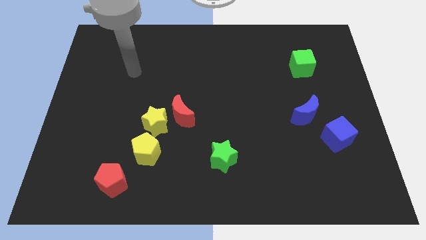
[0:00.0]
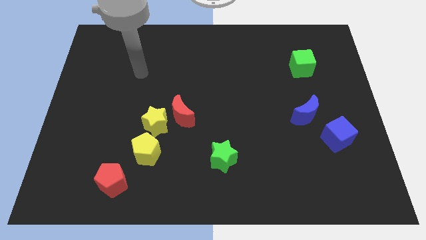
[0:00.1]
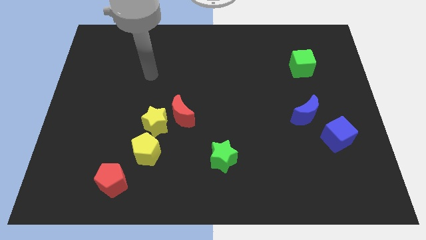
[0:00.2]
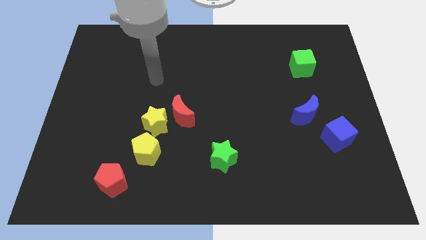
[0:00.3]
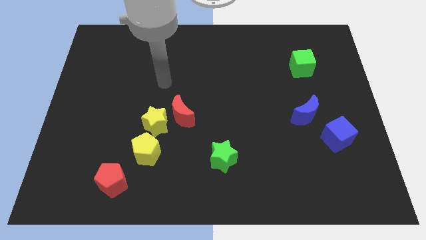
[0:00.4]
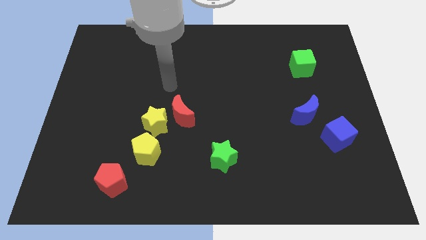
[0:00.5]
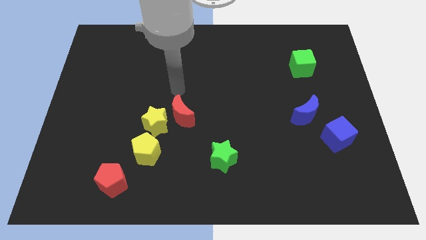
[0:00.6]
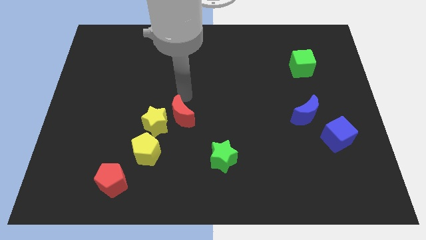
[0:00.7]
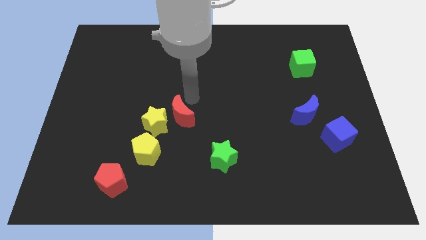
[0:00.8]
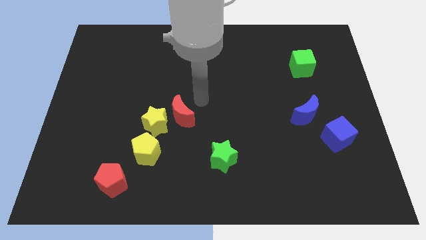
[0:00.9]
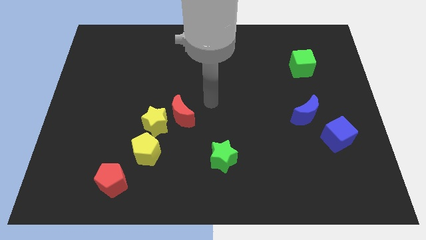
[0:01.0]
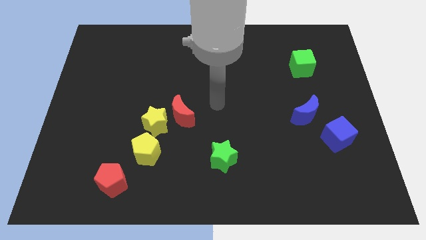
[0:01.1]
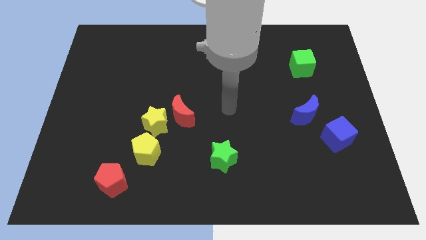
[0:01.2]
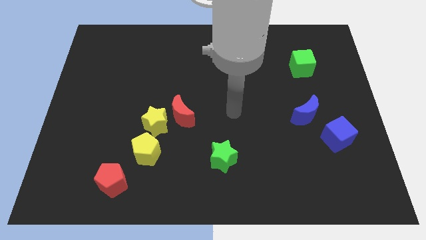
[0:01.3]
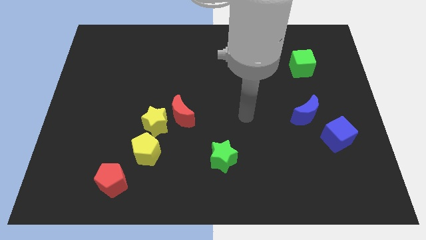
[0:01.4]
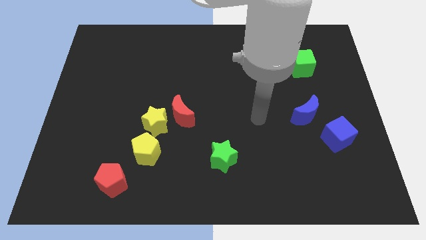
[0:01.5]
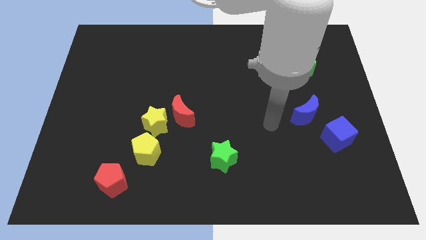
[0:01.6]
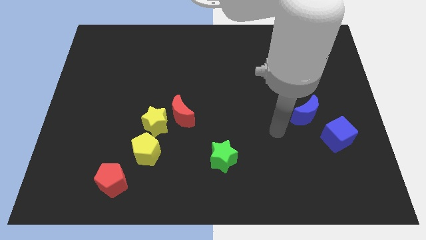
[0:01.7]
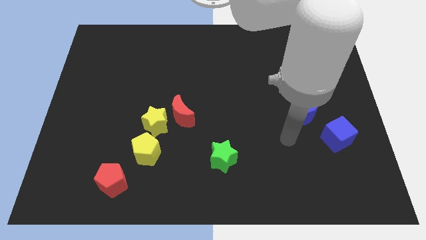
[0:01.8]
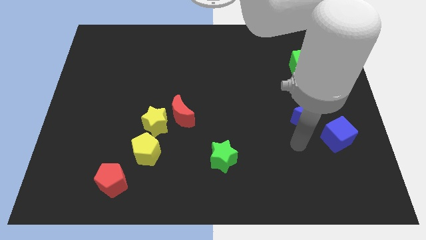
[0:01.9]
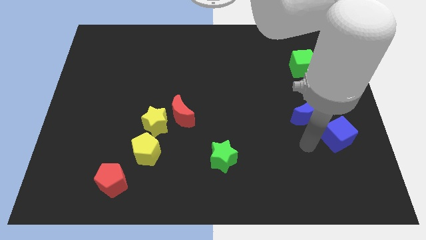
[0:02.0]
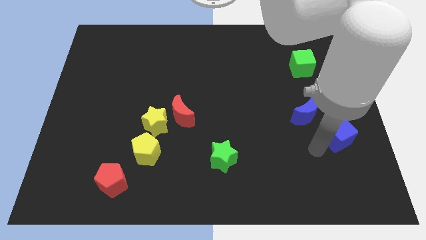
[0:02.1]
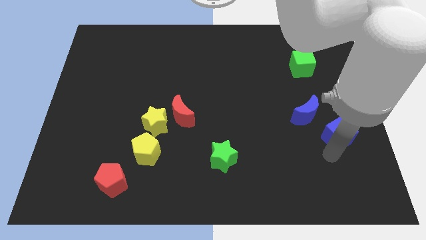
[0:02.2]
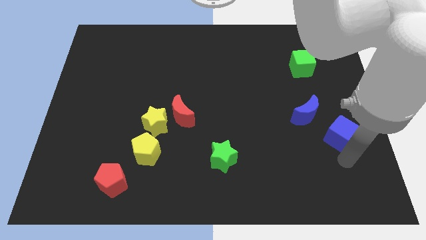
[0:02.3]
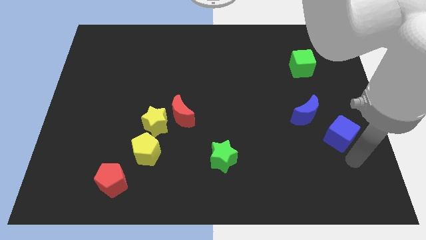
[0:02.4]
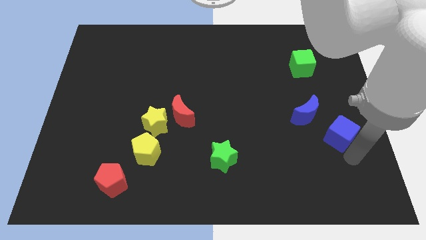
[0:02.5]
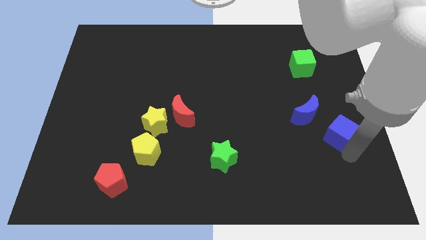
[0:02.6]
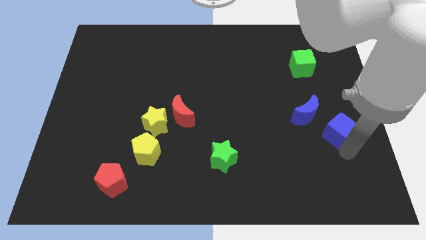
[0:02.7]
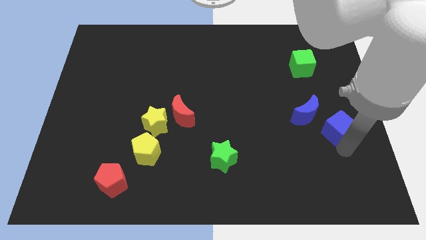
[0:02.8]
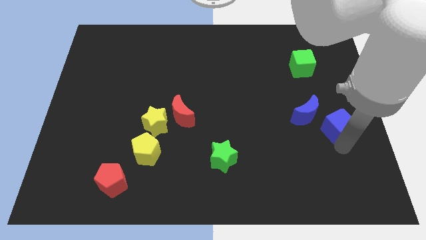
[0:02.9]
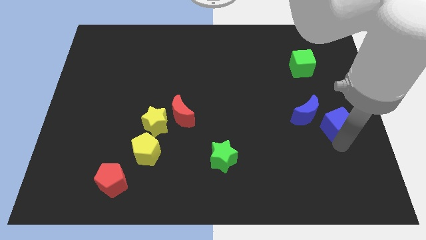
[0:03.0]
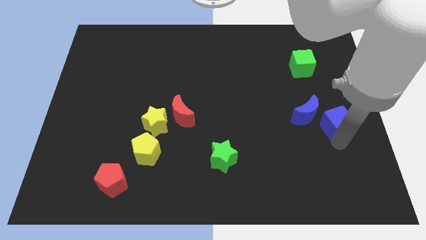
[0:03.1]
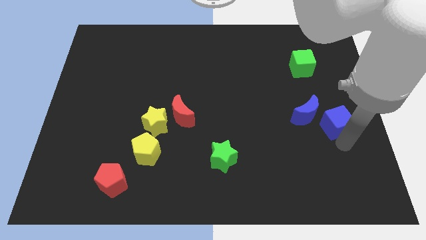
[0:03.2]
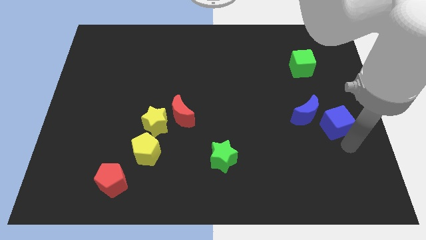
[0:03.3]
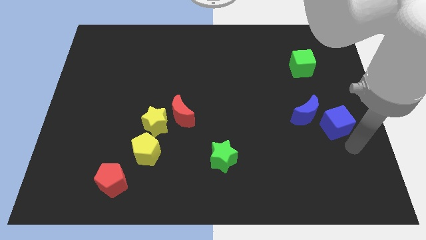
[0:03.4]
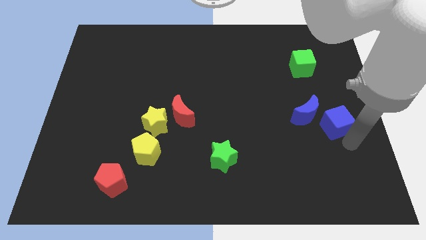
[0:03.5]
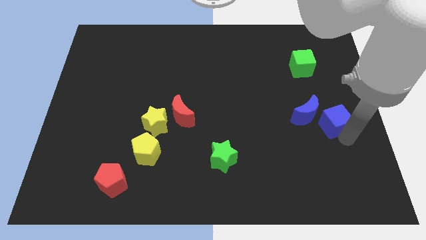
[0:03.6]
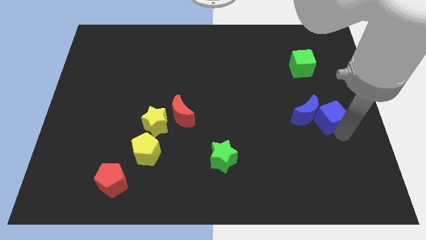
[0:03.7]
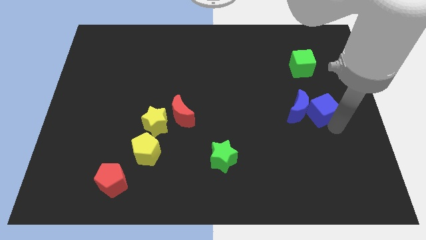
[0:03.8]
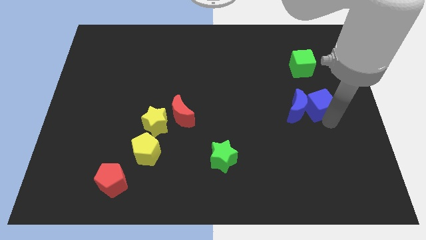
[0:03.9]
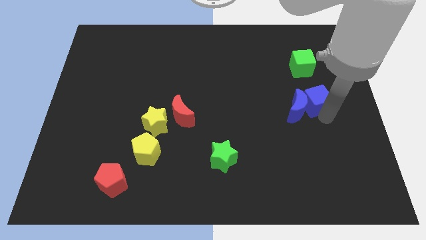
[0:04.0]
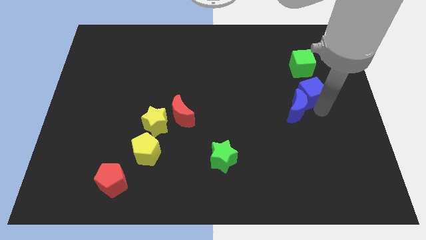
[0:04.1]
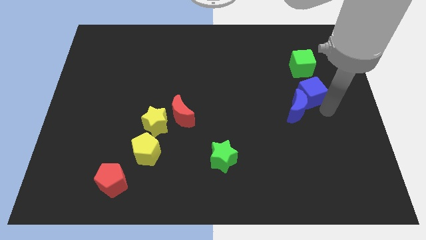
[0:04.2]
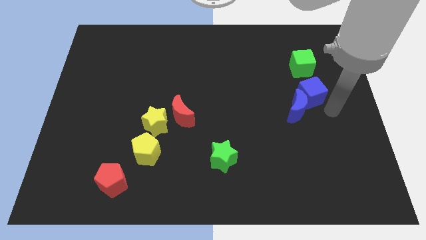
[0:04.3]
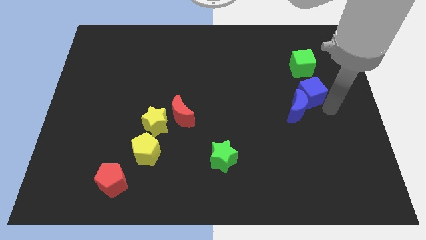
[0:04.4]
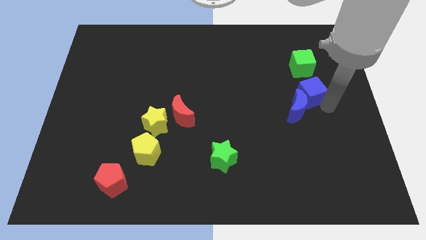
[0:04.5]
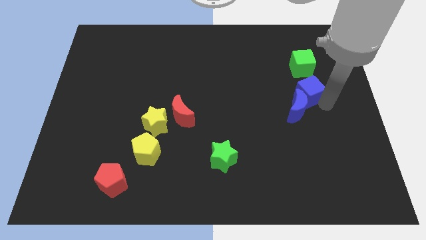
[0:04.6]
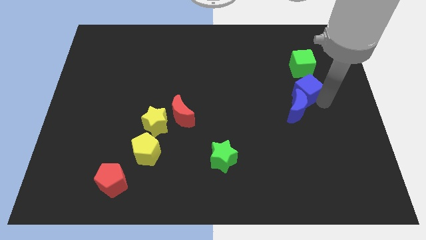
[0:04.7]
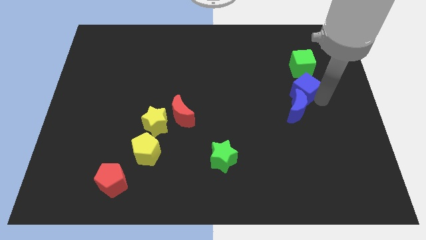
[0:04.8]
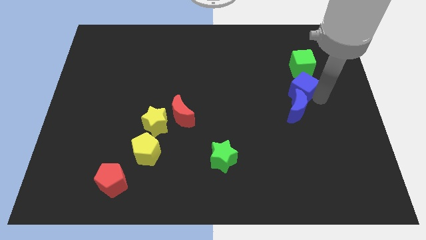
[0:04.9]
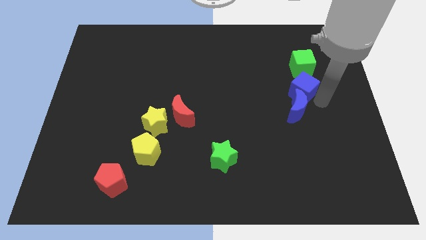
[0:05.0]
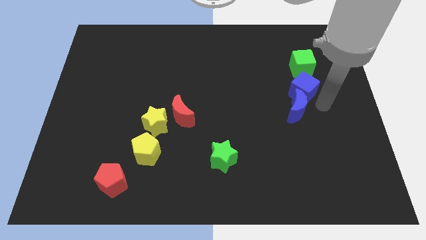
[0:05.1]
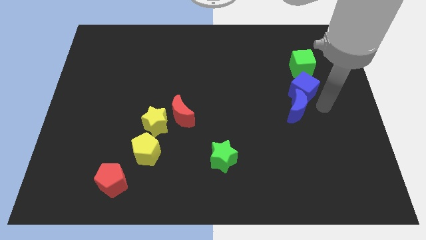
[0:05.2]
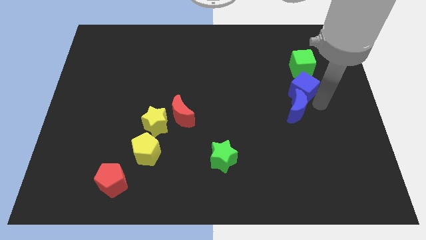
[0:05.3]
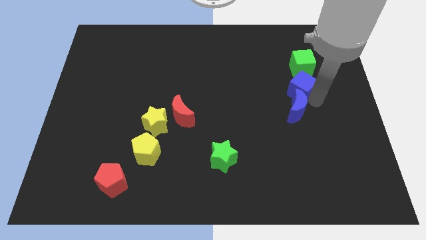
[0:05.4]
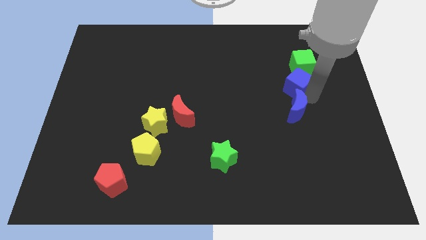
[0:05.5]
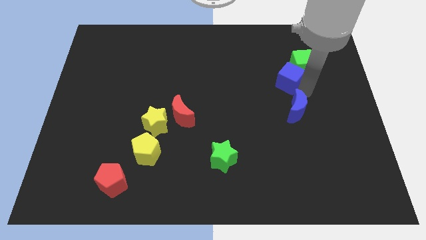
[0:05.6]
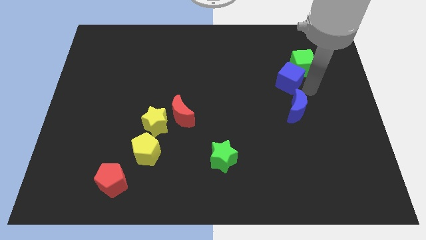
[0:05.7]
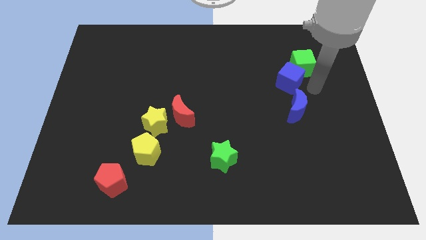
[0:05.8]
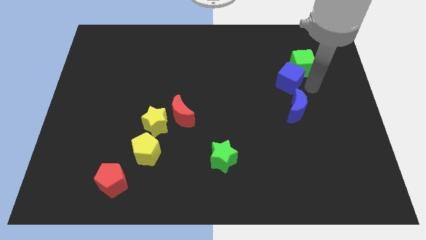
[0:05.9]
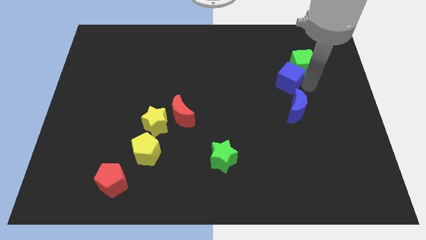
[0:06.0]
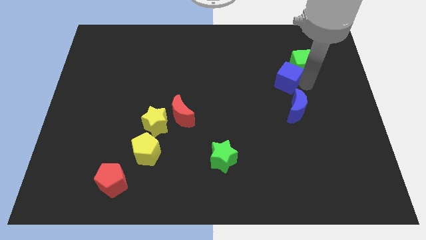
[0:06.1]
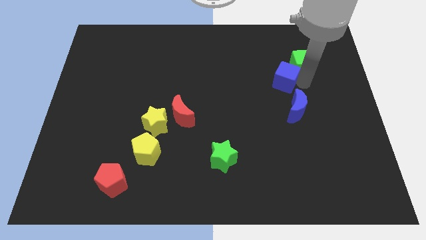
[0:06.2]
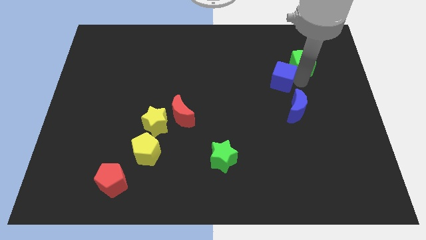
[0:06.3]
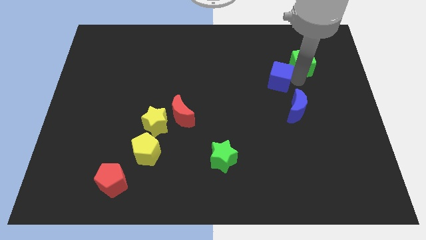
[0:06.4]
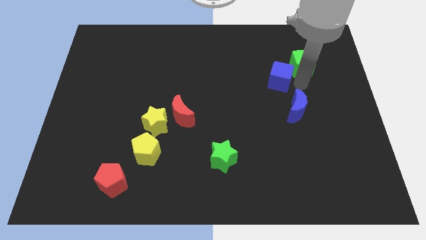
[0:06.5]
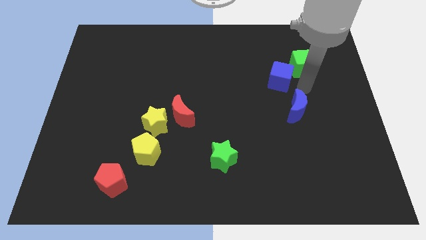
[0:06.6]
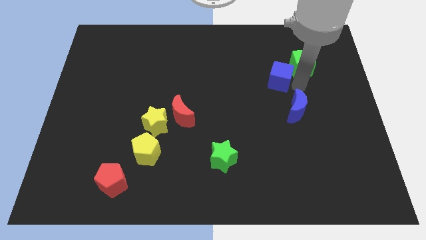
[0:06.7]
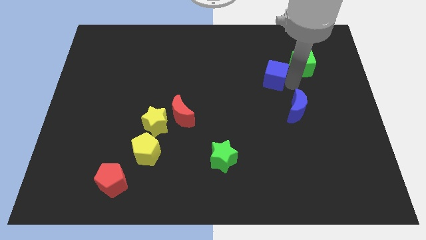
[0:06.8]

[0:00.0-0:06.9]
push the blue cube up and then to the left

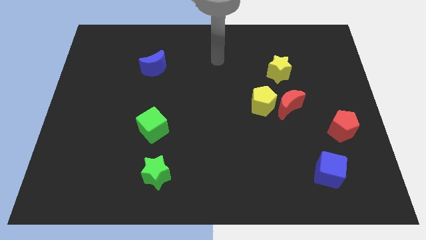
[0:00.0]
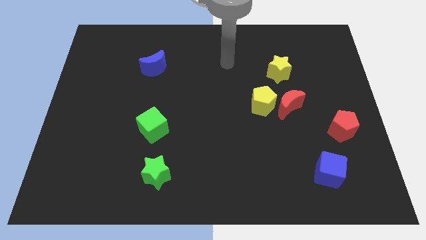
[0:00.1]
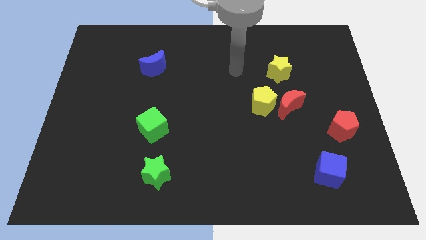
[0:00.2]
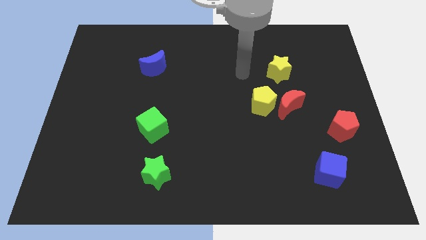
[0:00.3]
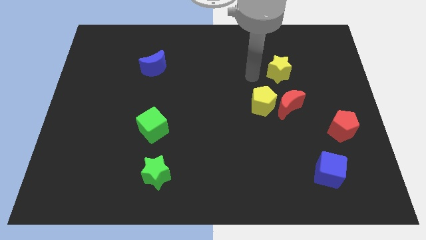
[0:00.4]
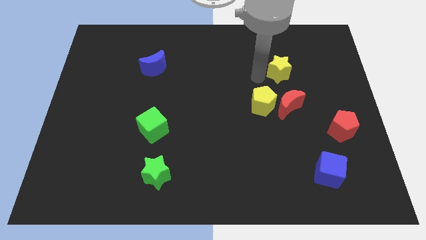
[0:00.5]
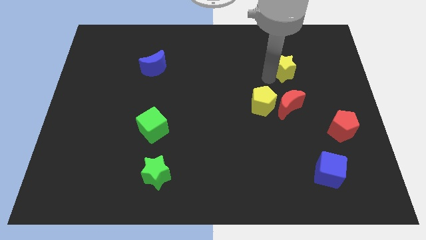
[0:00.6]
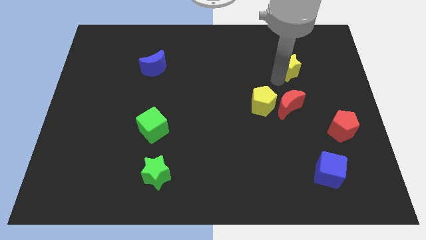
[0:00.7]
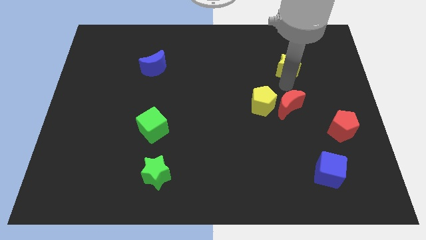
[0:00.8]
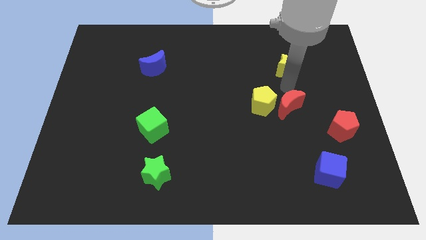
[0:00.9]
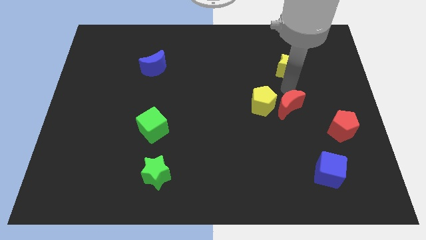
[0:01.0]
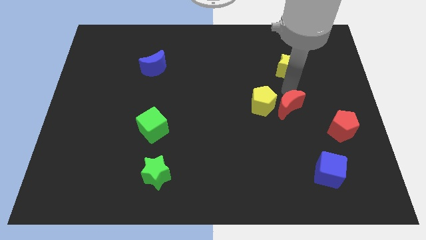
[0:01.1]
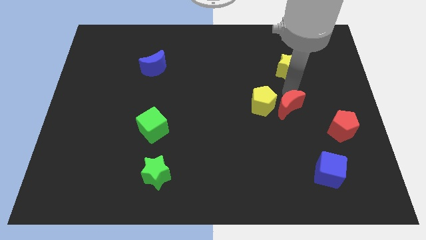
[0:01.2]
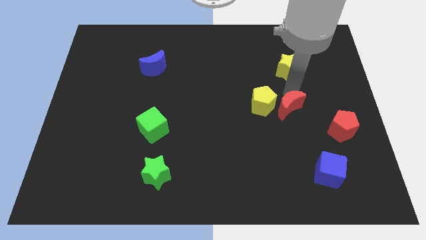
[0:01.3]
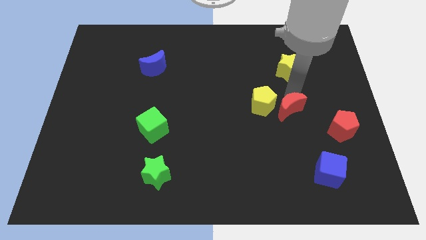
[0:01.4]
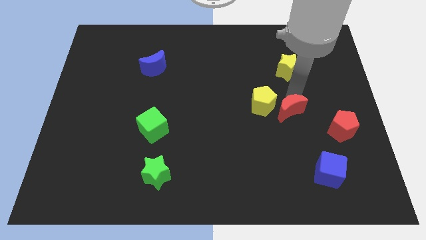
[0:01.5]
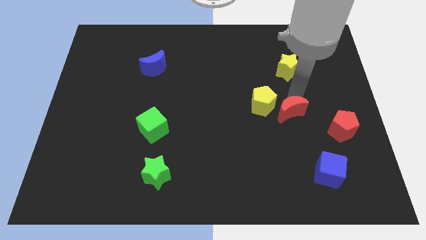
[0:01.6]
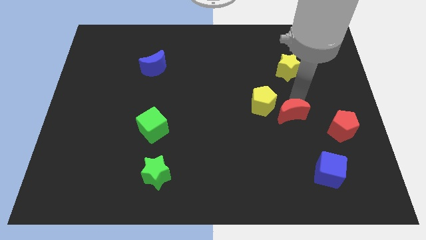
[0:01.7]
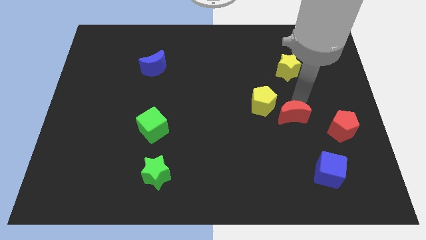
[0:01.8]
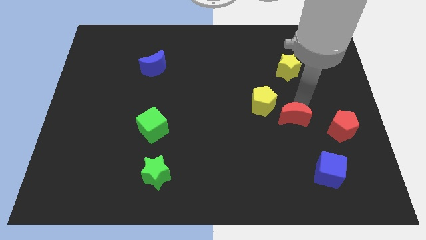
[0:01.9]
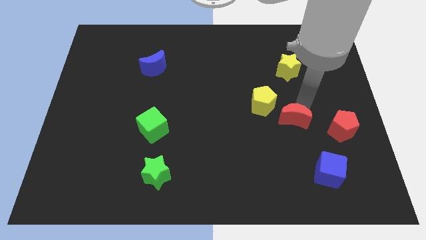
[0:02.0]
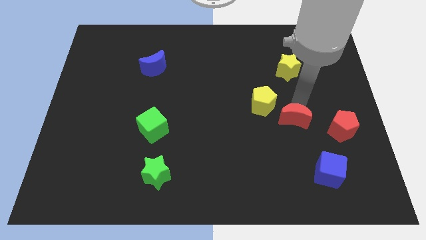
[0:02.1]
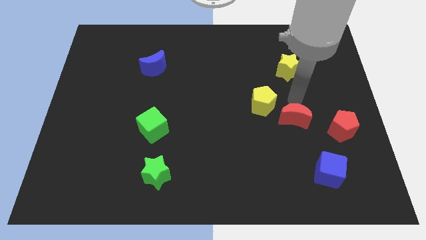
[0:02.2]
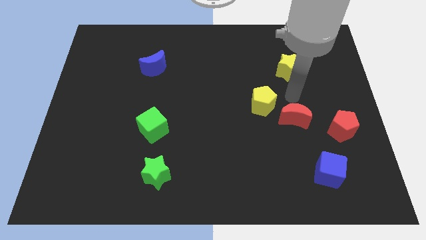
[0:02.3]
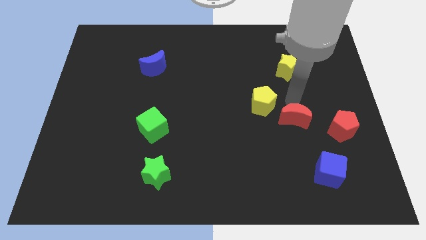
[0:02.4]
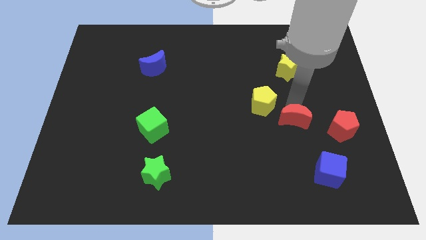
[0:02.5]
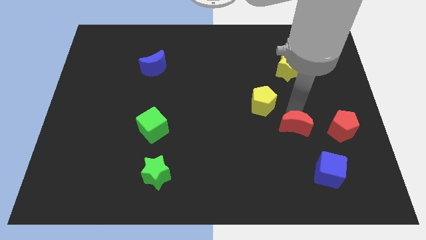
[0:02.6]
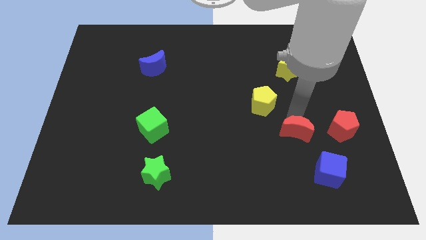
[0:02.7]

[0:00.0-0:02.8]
push the red moon down slightly
